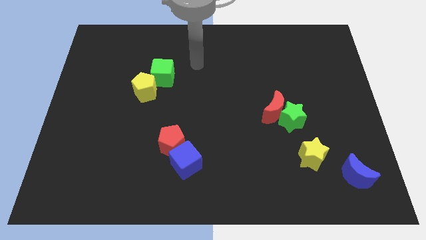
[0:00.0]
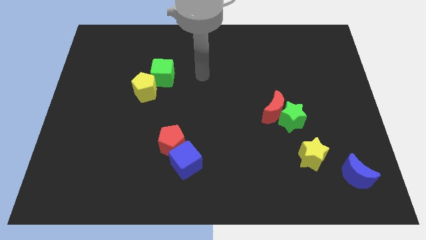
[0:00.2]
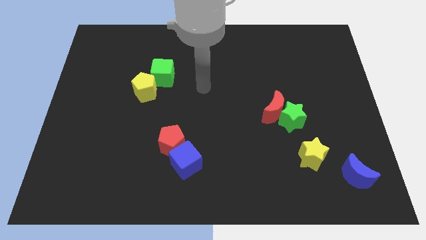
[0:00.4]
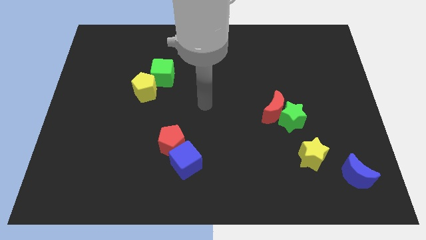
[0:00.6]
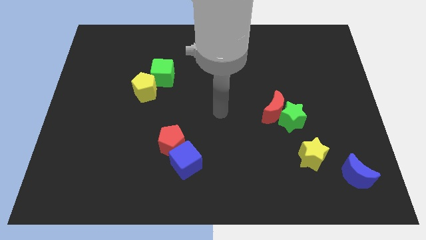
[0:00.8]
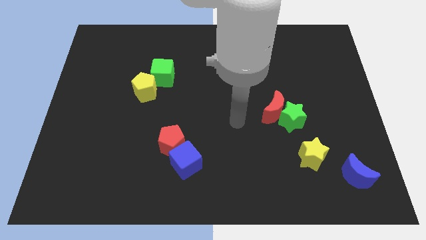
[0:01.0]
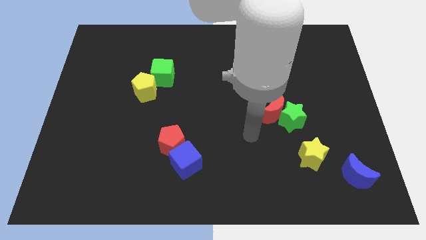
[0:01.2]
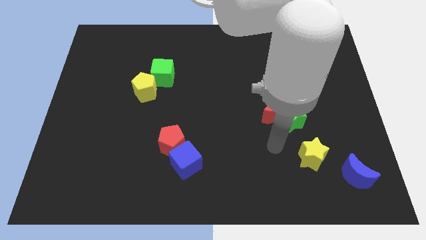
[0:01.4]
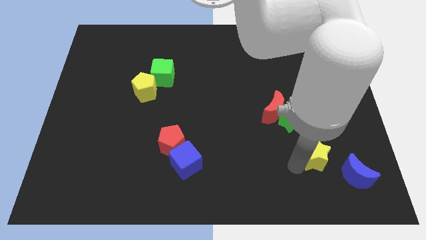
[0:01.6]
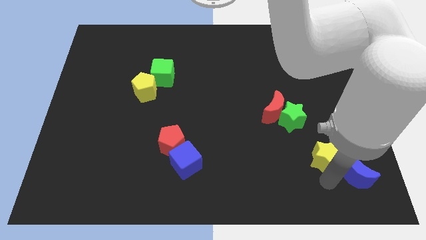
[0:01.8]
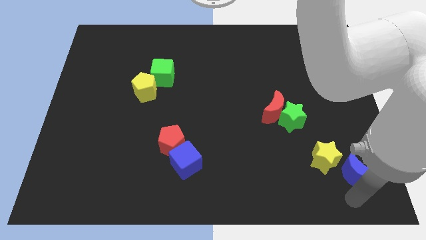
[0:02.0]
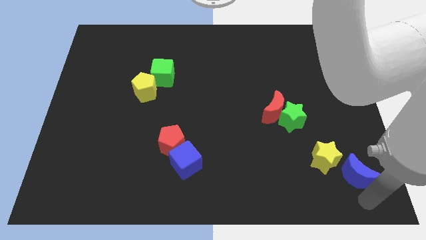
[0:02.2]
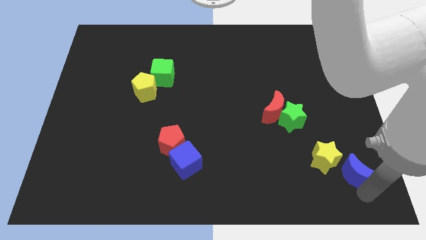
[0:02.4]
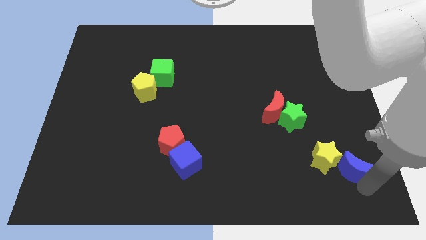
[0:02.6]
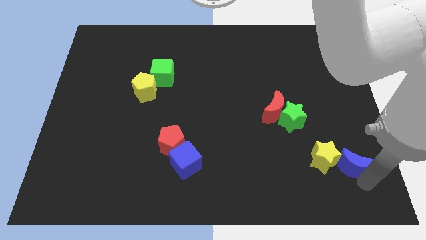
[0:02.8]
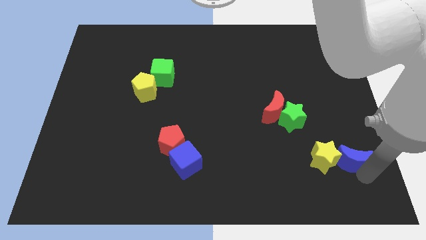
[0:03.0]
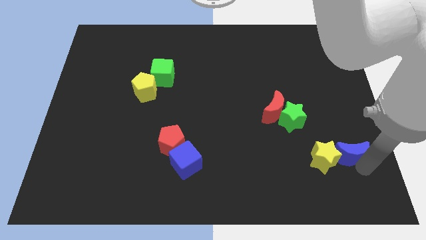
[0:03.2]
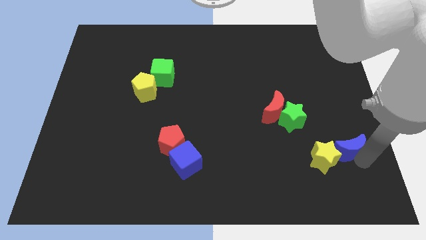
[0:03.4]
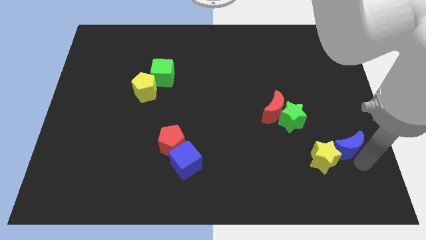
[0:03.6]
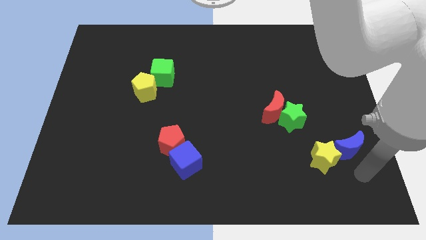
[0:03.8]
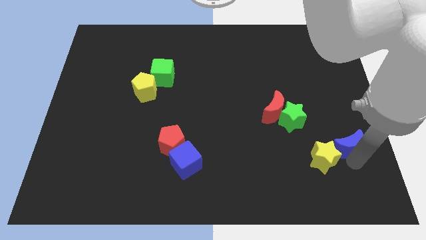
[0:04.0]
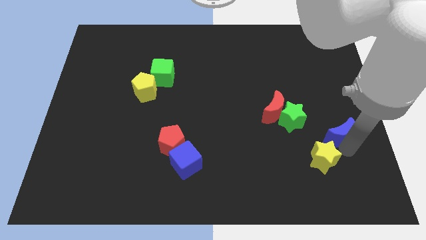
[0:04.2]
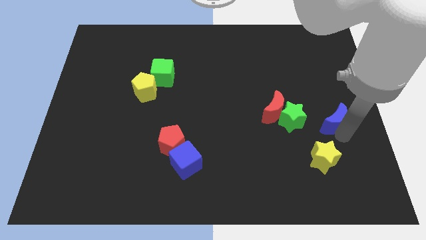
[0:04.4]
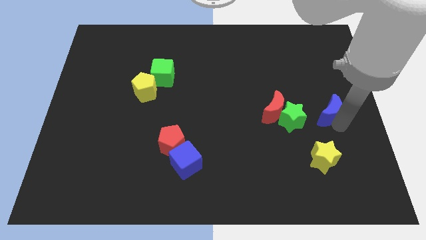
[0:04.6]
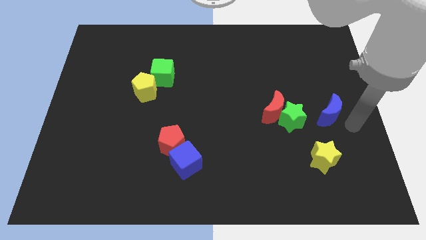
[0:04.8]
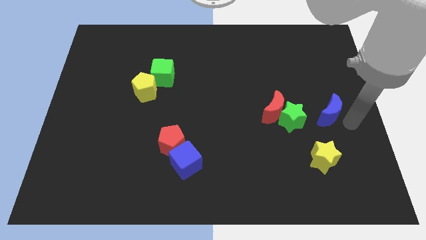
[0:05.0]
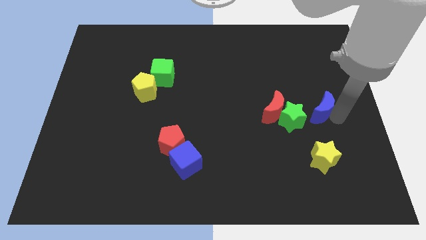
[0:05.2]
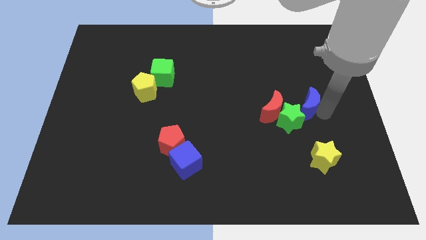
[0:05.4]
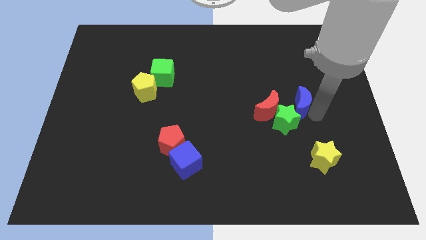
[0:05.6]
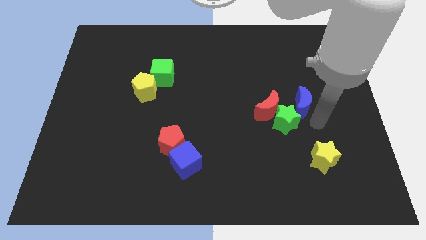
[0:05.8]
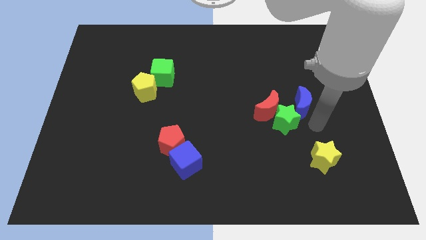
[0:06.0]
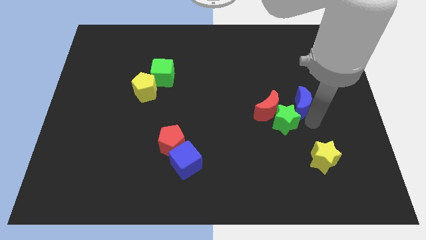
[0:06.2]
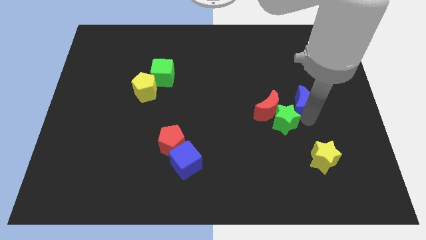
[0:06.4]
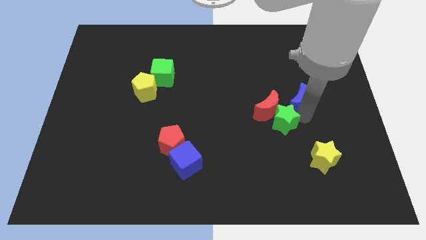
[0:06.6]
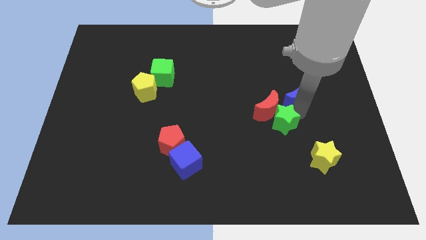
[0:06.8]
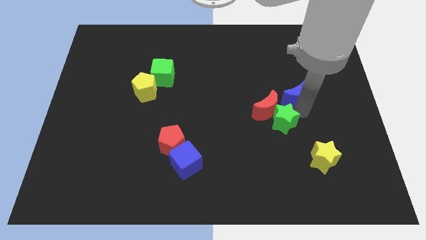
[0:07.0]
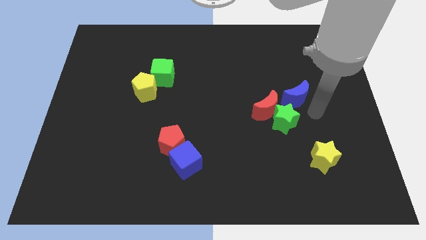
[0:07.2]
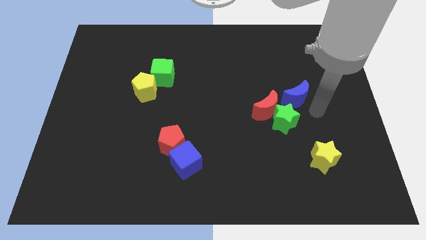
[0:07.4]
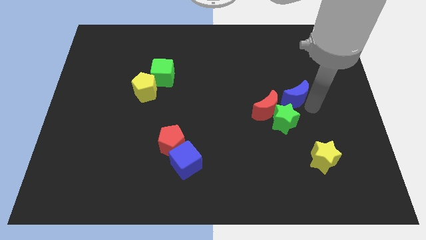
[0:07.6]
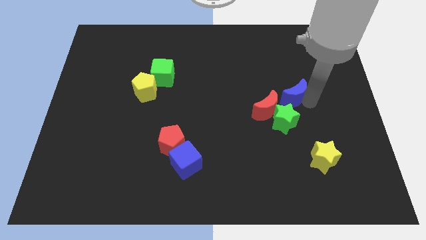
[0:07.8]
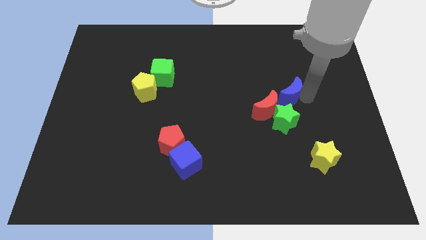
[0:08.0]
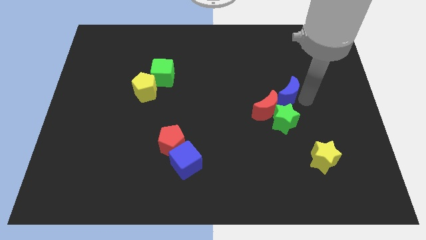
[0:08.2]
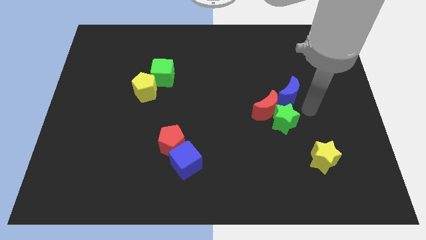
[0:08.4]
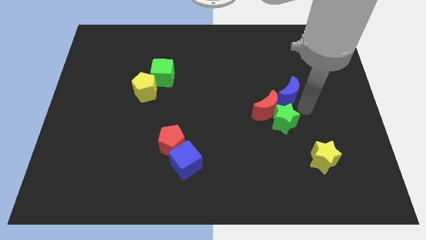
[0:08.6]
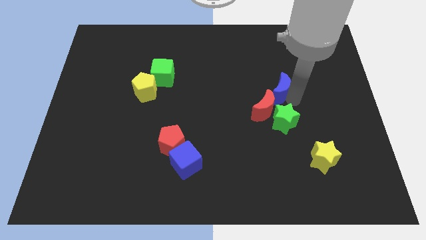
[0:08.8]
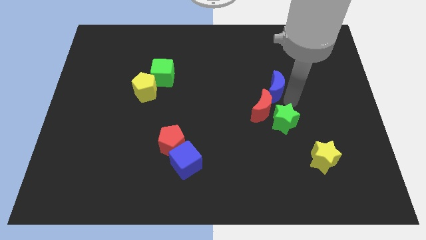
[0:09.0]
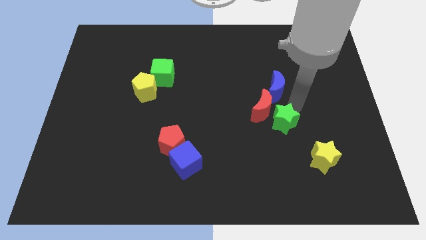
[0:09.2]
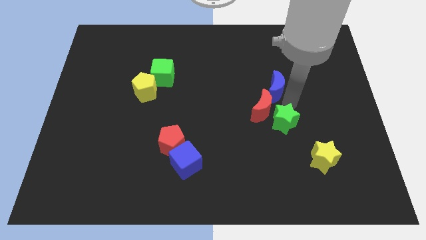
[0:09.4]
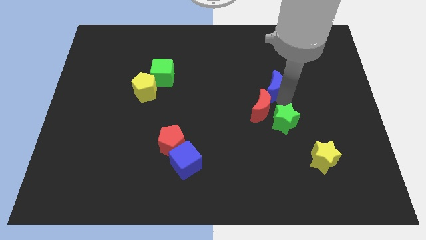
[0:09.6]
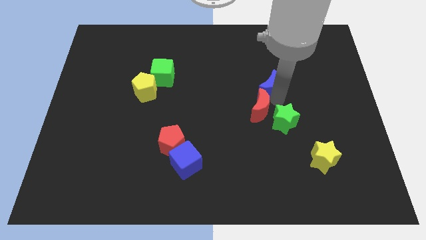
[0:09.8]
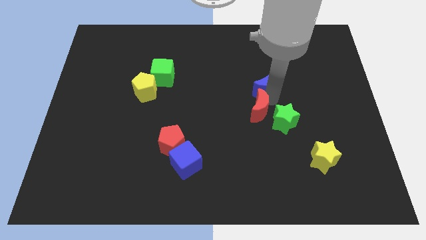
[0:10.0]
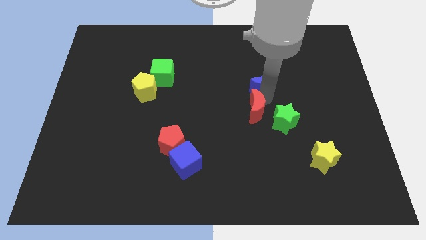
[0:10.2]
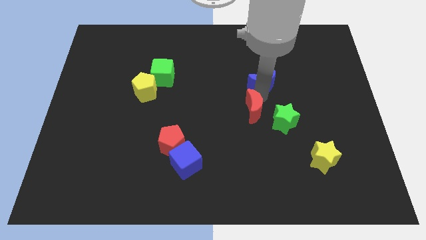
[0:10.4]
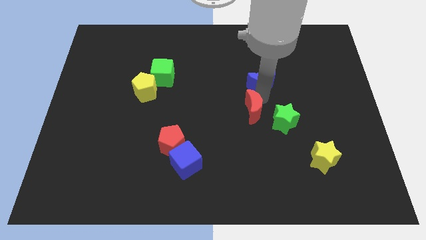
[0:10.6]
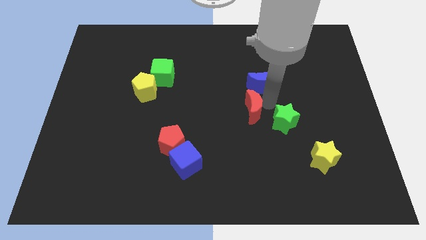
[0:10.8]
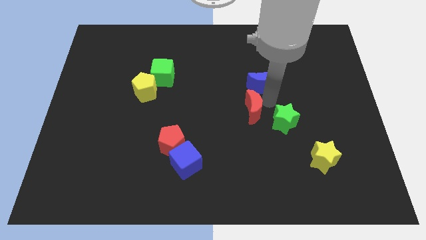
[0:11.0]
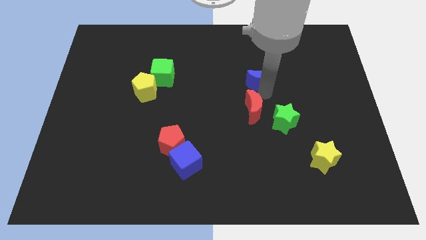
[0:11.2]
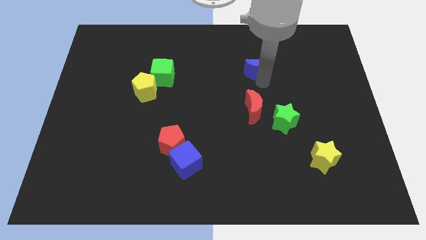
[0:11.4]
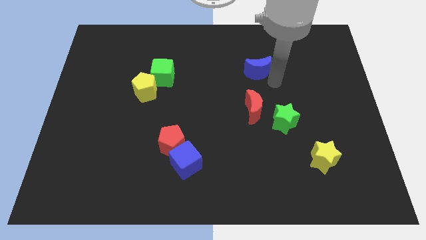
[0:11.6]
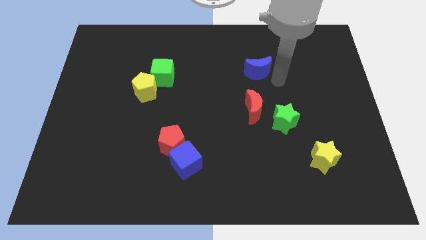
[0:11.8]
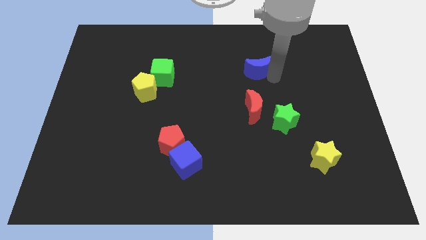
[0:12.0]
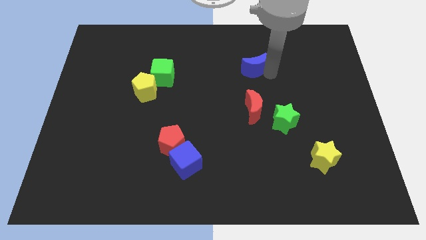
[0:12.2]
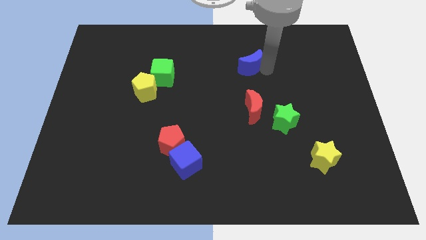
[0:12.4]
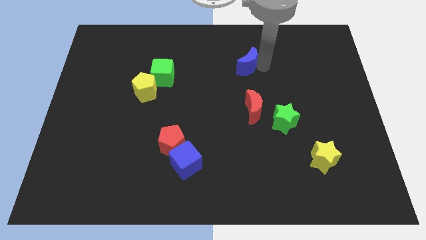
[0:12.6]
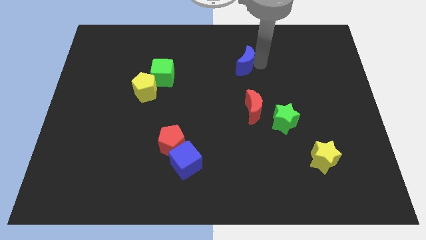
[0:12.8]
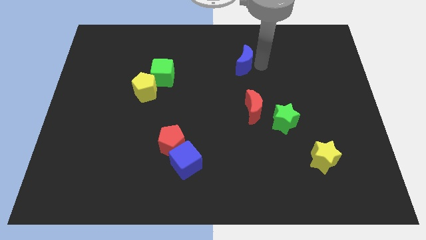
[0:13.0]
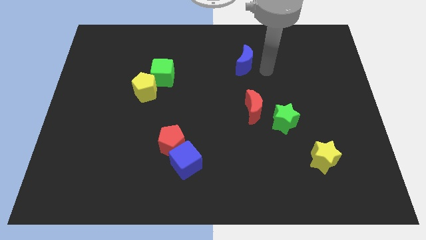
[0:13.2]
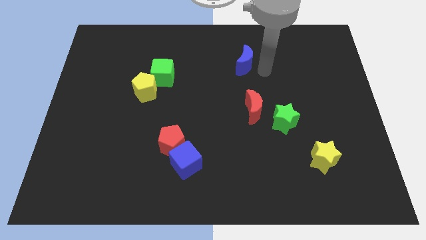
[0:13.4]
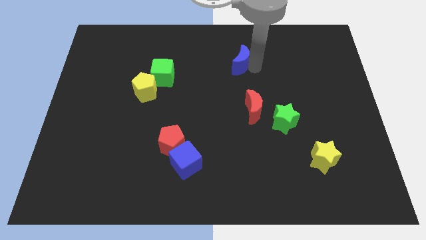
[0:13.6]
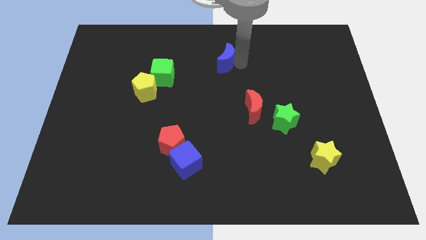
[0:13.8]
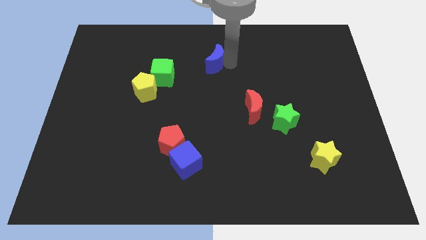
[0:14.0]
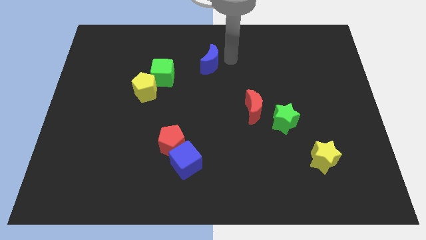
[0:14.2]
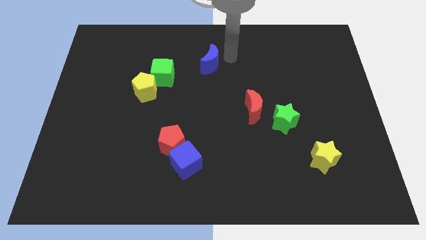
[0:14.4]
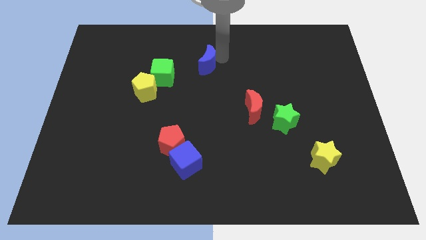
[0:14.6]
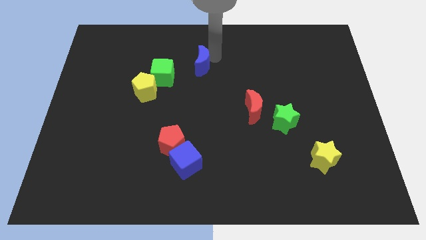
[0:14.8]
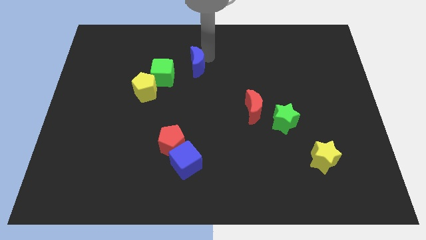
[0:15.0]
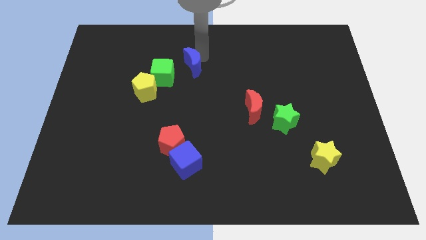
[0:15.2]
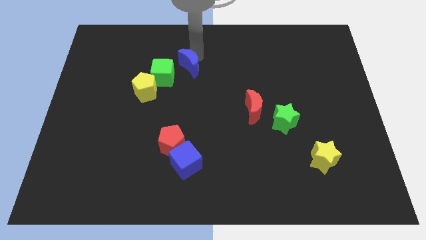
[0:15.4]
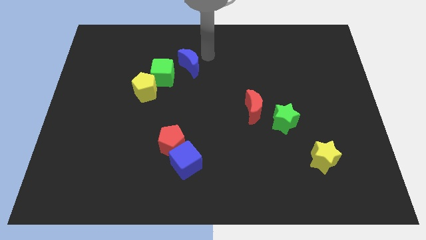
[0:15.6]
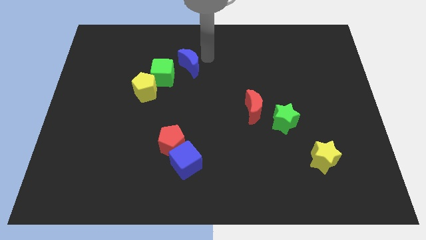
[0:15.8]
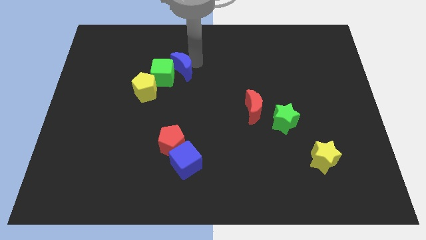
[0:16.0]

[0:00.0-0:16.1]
move the blue moon diagonally up and to the right of the yellow pentagon
